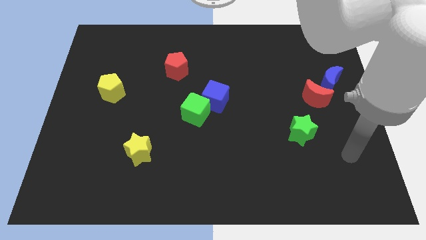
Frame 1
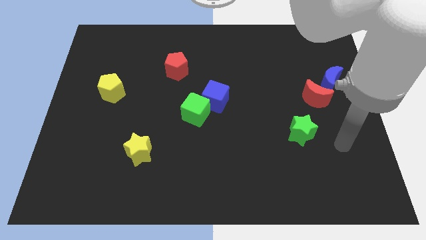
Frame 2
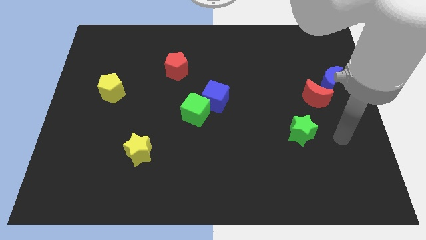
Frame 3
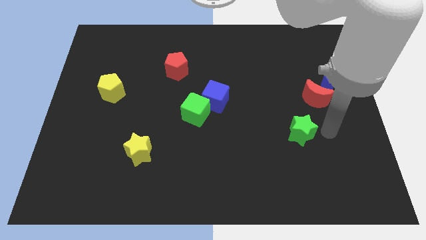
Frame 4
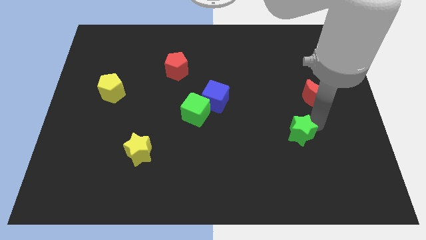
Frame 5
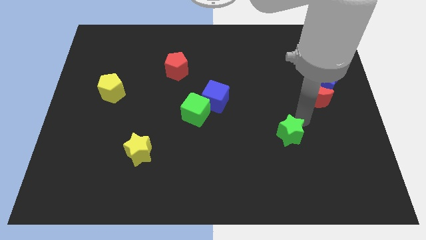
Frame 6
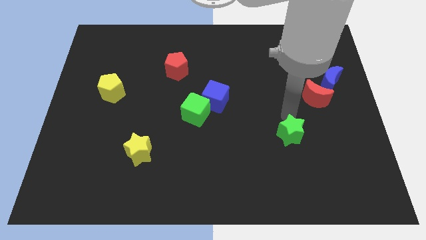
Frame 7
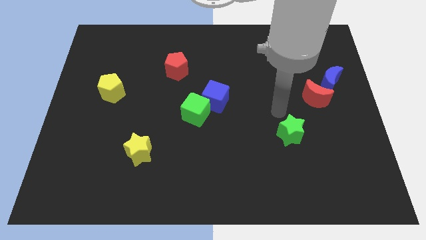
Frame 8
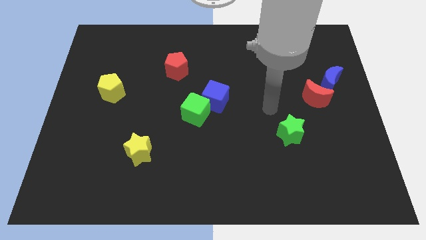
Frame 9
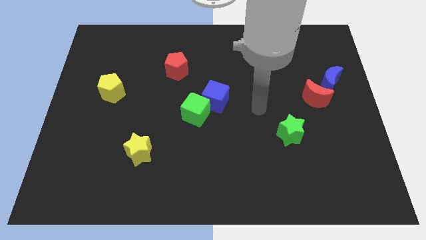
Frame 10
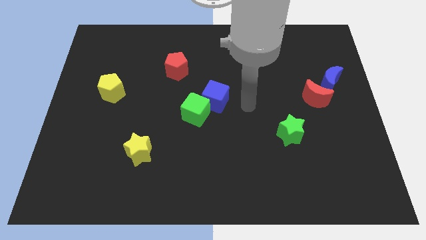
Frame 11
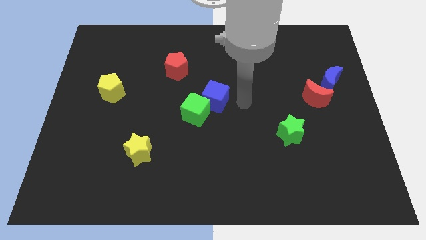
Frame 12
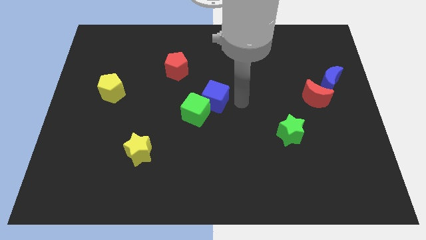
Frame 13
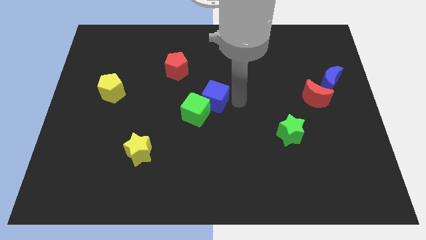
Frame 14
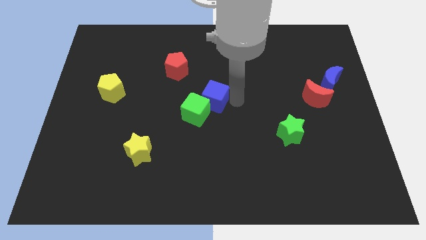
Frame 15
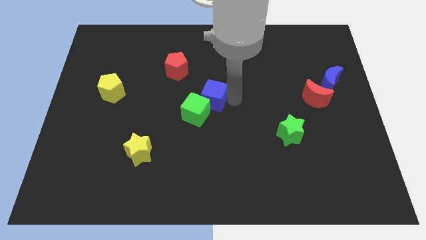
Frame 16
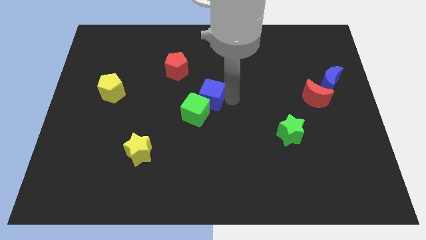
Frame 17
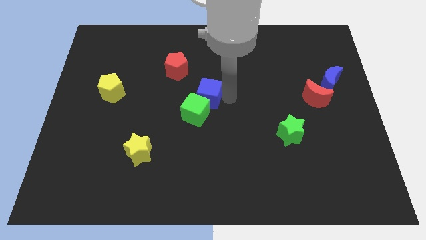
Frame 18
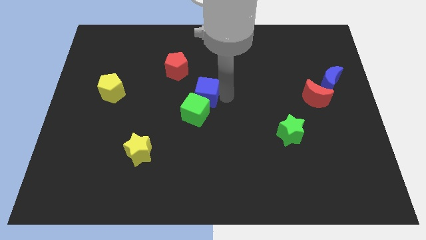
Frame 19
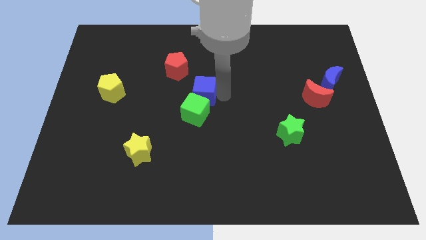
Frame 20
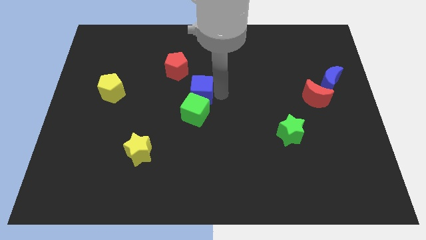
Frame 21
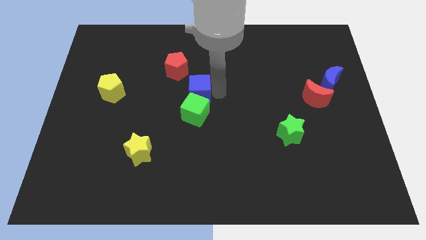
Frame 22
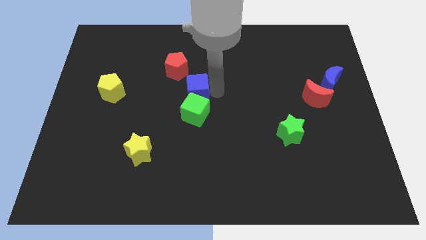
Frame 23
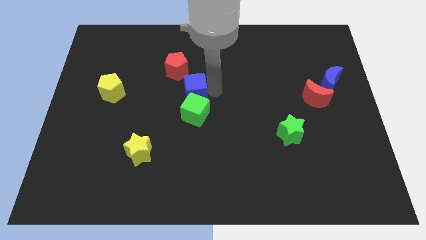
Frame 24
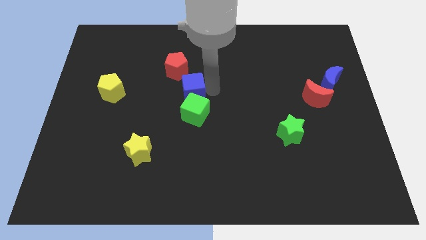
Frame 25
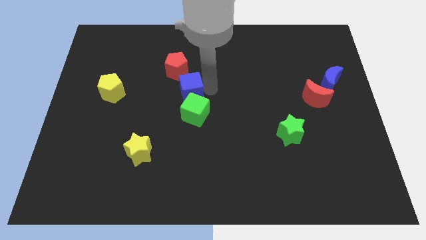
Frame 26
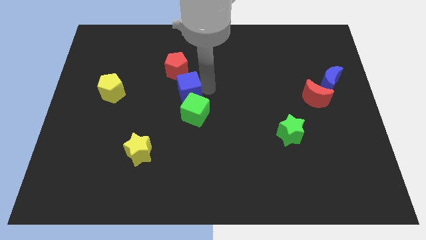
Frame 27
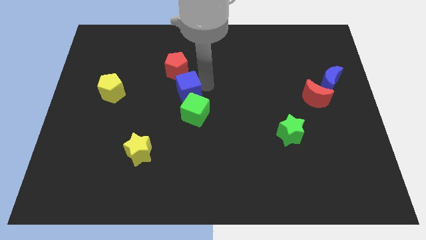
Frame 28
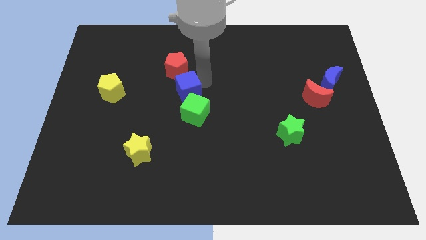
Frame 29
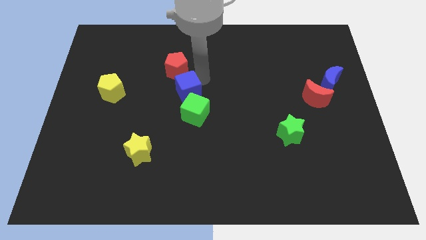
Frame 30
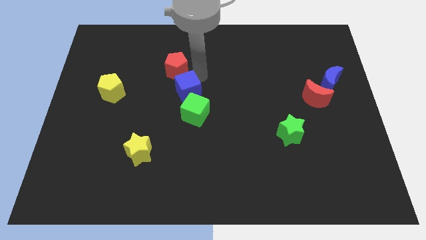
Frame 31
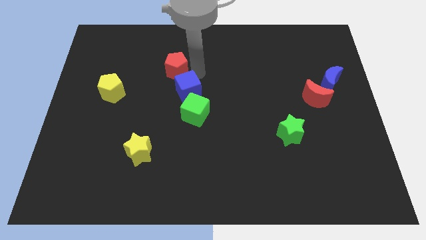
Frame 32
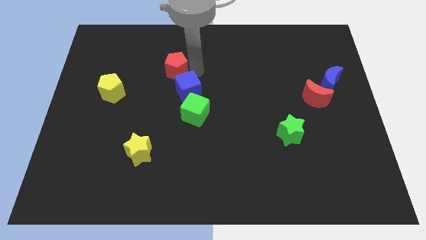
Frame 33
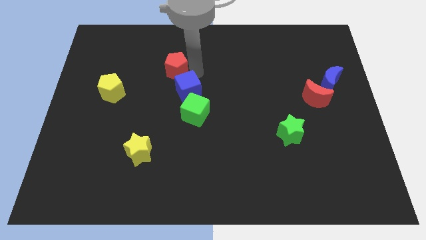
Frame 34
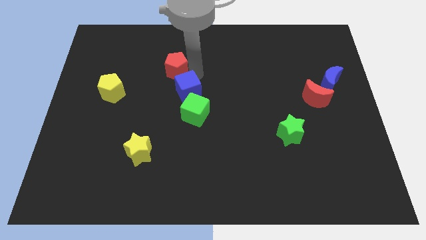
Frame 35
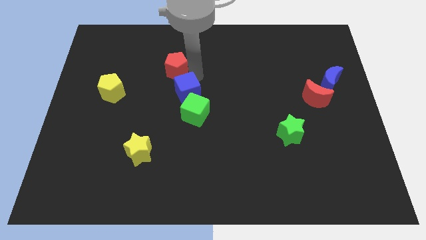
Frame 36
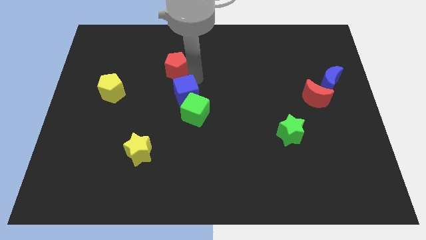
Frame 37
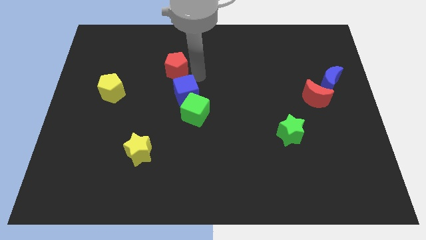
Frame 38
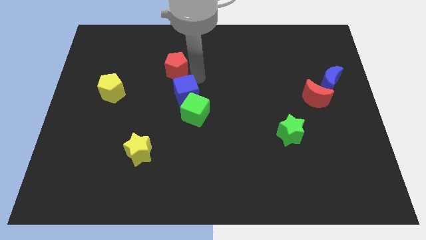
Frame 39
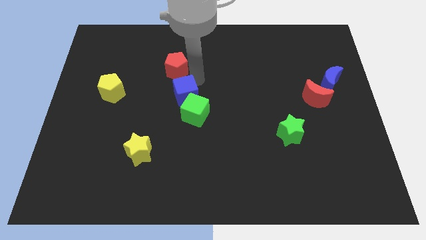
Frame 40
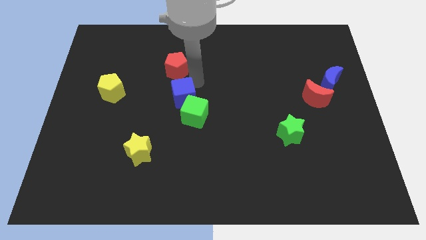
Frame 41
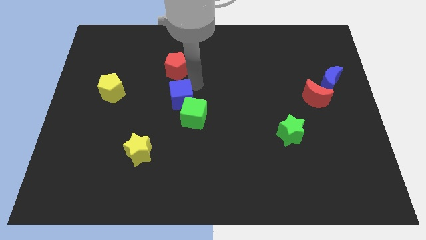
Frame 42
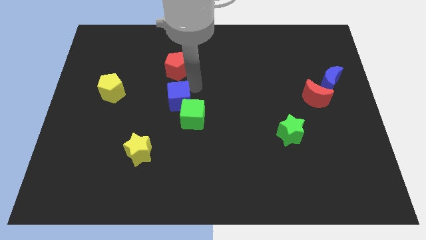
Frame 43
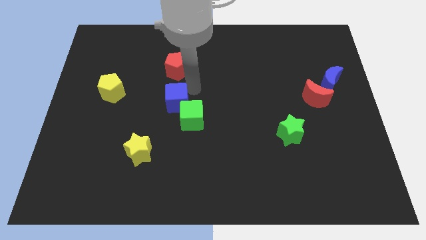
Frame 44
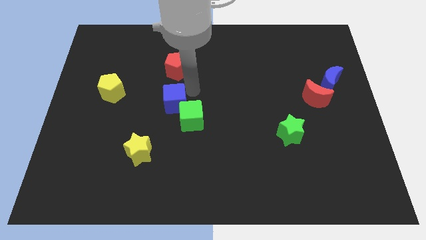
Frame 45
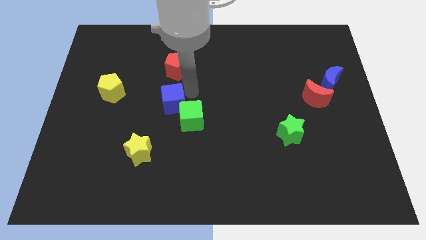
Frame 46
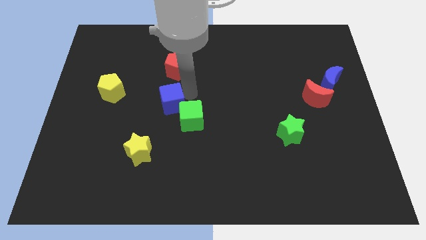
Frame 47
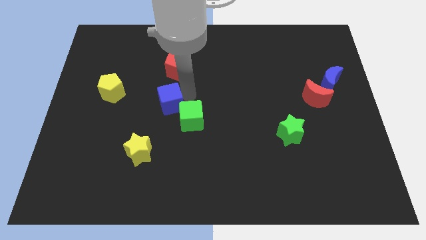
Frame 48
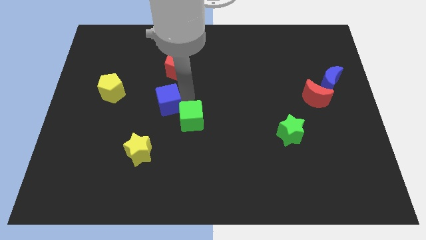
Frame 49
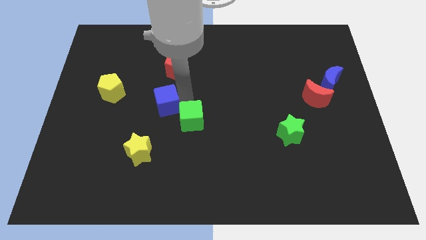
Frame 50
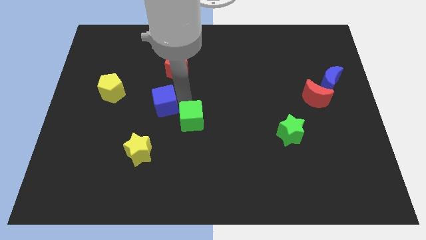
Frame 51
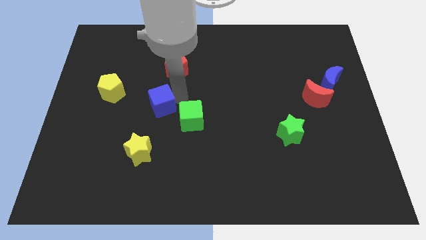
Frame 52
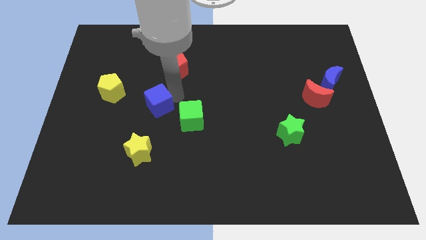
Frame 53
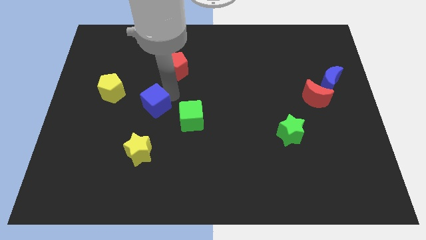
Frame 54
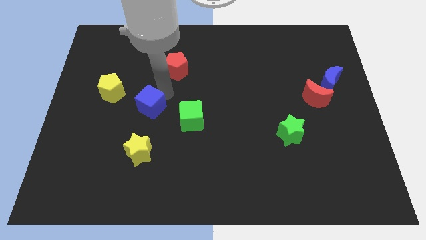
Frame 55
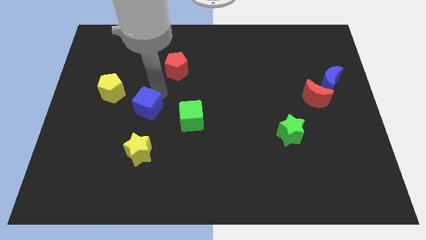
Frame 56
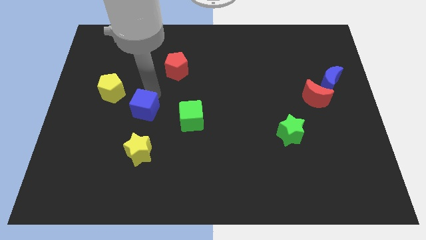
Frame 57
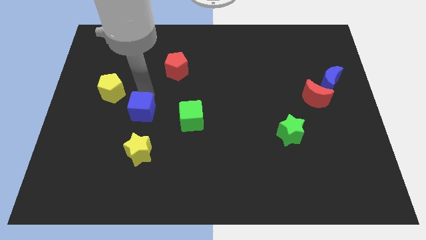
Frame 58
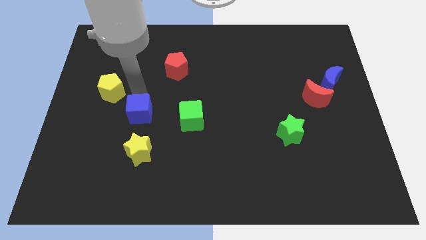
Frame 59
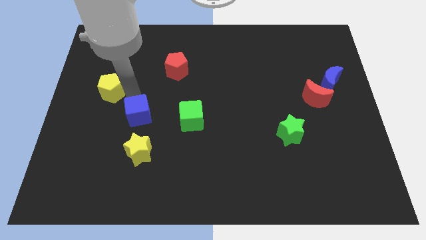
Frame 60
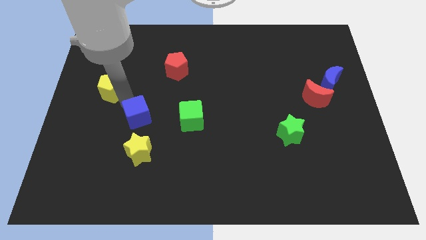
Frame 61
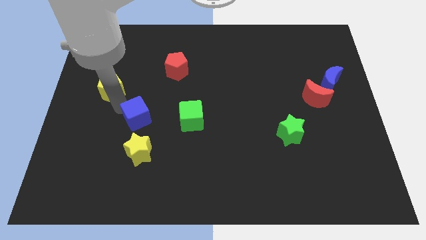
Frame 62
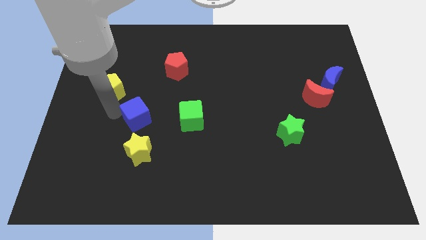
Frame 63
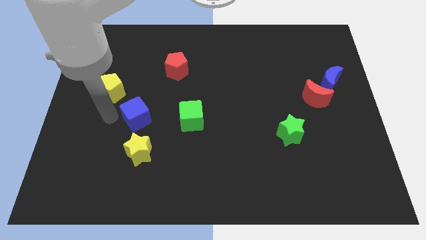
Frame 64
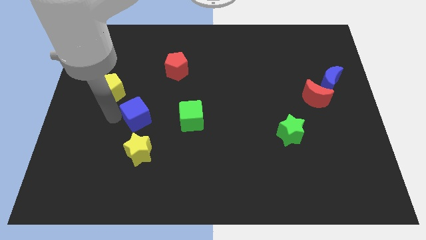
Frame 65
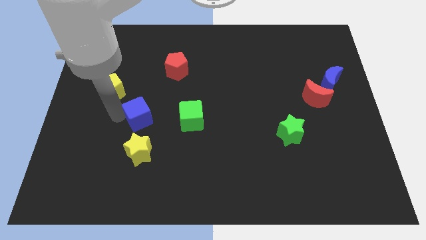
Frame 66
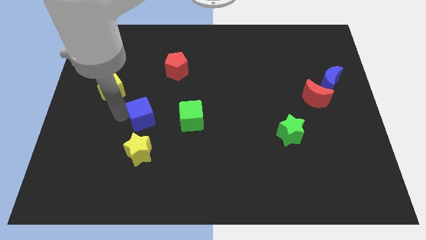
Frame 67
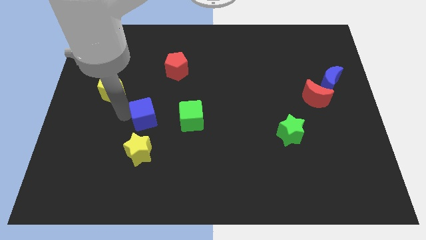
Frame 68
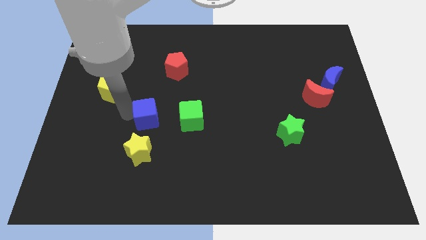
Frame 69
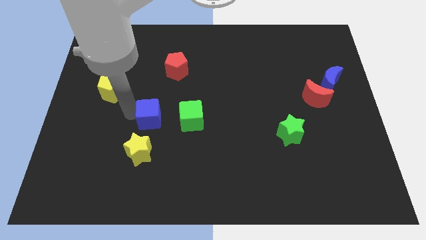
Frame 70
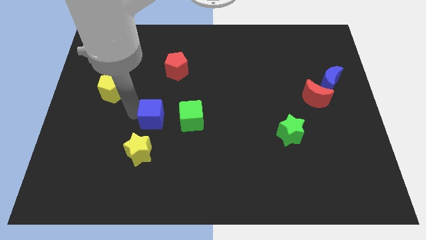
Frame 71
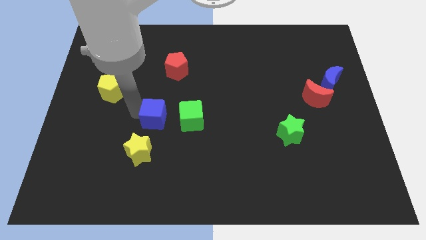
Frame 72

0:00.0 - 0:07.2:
move the blue cube to the top right of the yellow star

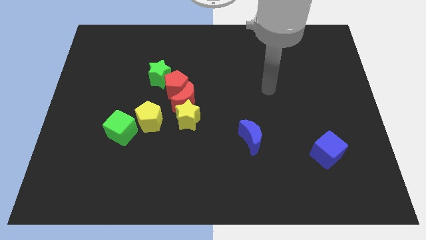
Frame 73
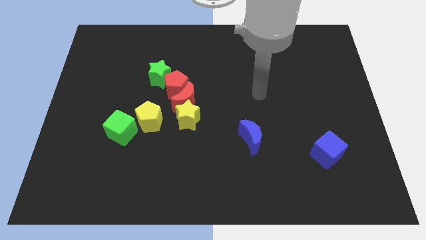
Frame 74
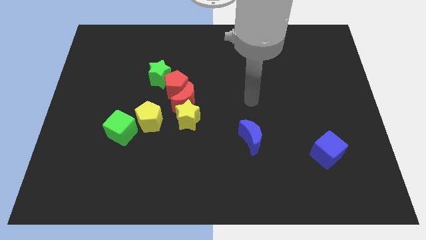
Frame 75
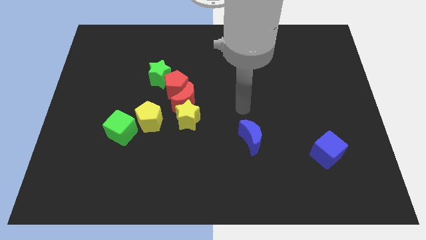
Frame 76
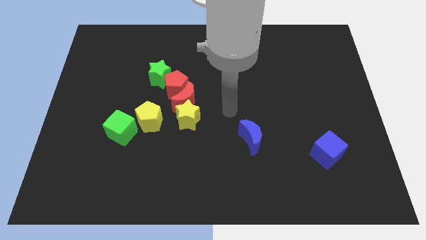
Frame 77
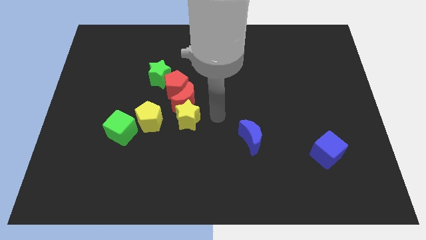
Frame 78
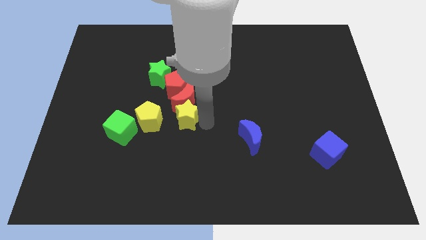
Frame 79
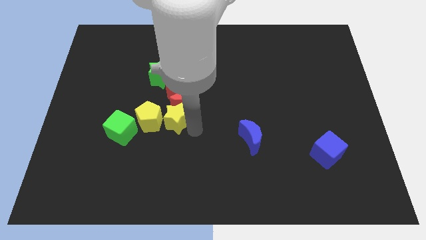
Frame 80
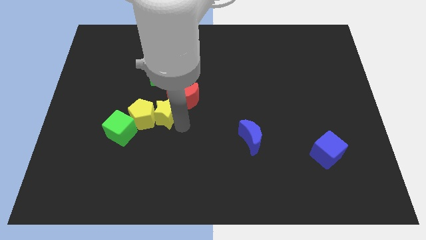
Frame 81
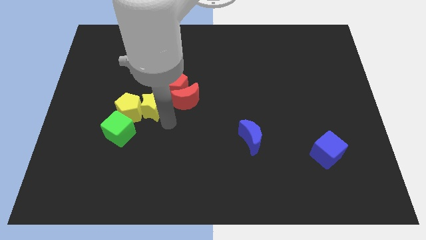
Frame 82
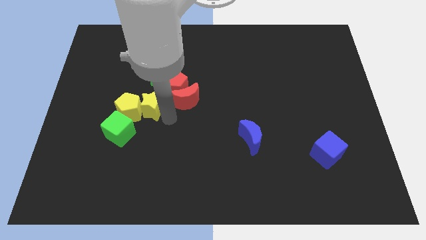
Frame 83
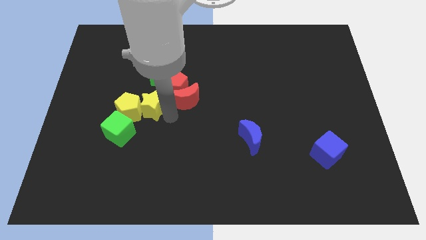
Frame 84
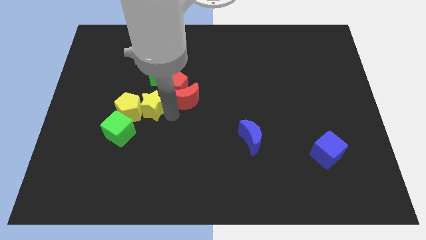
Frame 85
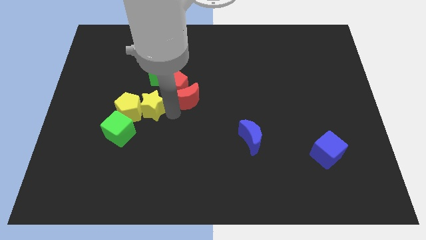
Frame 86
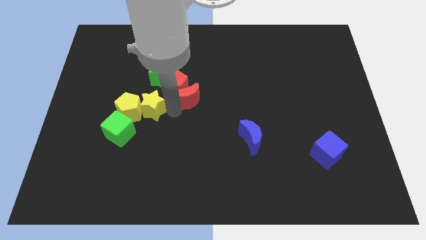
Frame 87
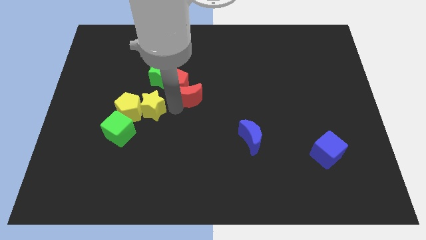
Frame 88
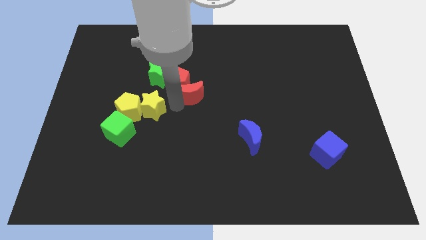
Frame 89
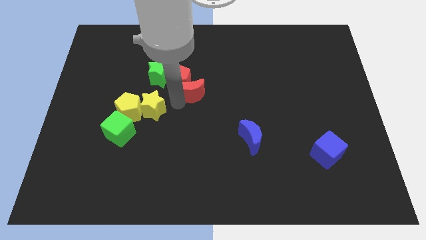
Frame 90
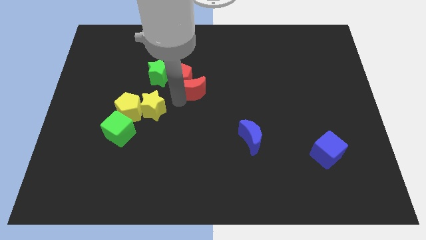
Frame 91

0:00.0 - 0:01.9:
push the red moon to the right of the green star
